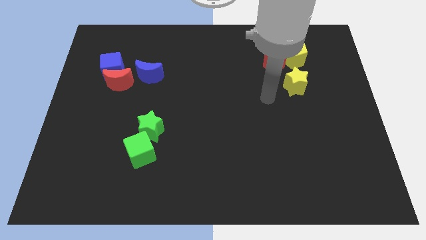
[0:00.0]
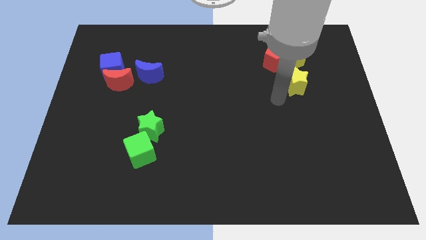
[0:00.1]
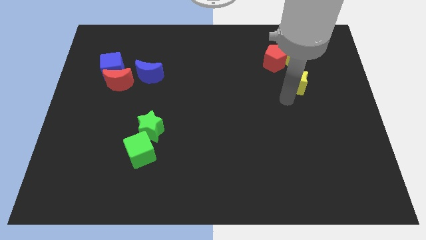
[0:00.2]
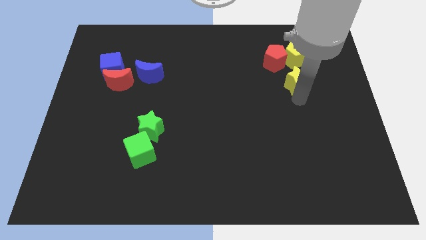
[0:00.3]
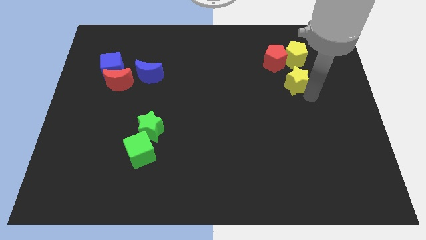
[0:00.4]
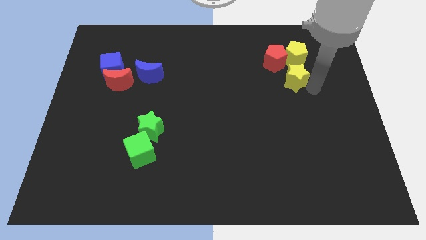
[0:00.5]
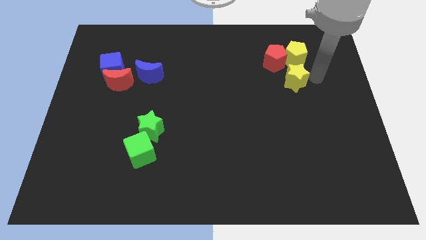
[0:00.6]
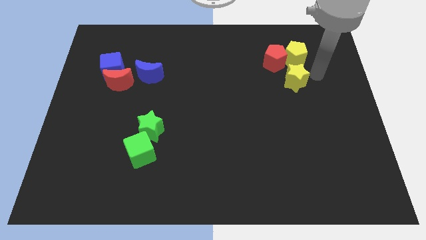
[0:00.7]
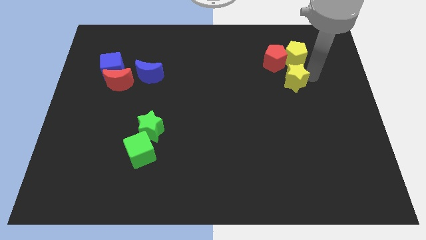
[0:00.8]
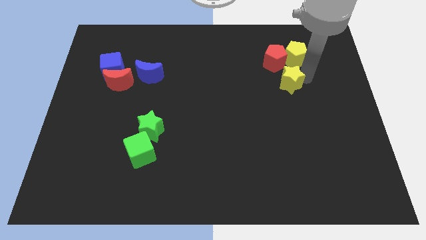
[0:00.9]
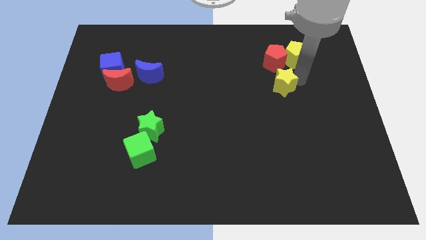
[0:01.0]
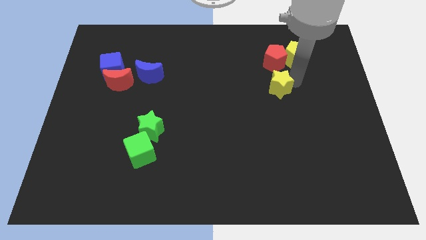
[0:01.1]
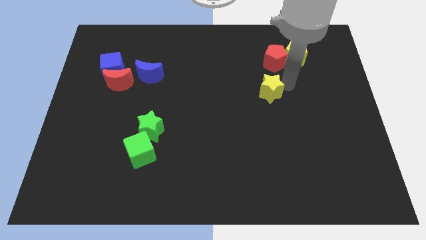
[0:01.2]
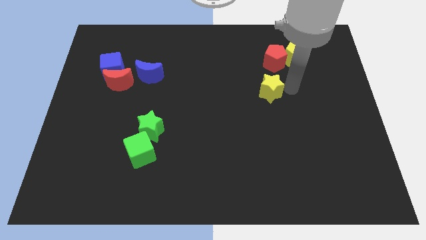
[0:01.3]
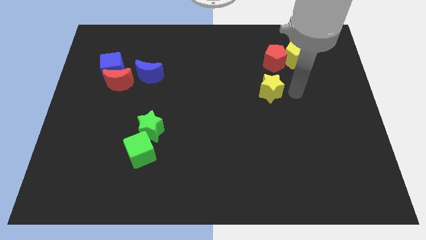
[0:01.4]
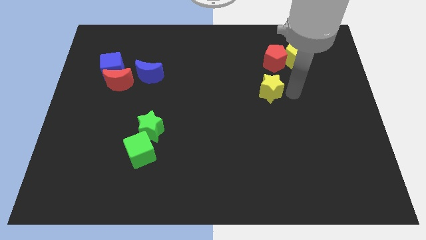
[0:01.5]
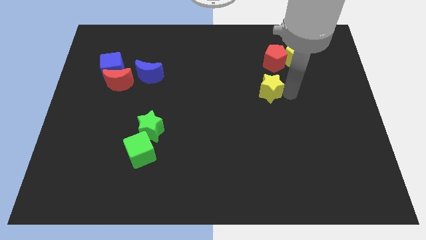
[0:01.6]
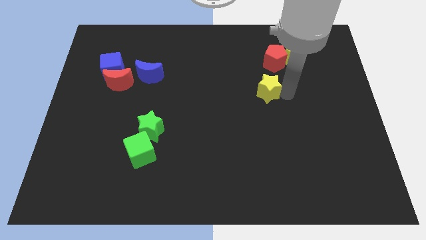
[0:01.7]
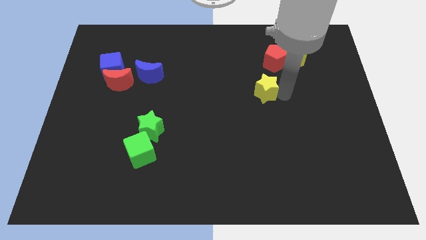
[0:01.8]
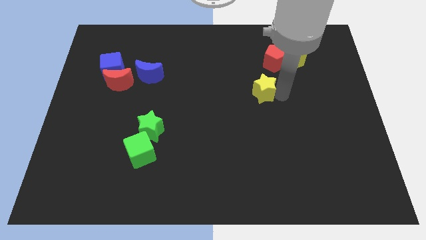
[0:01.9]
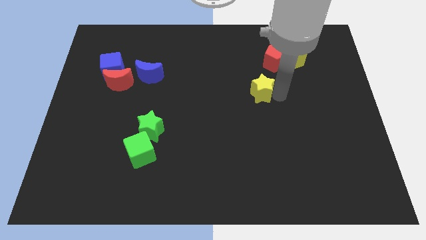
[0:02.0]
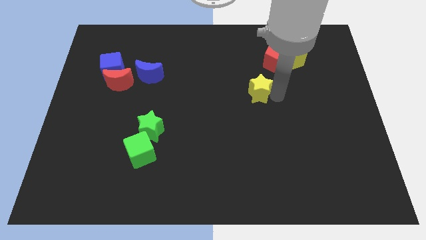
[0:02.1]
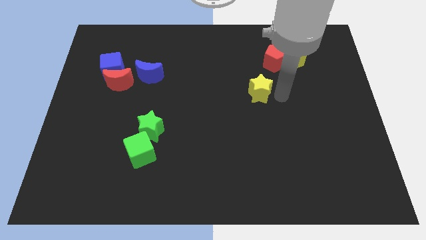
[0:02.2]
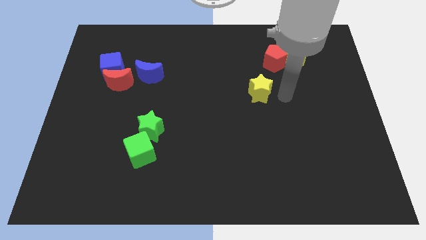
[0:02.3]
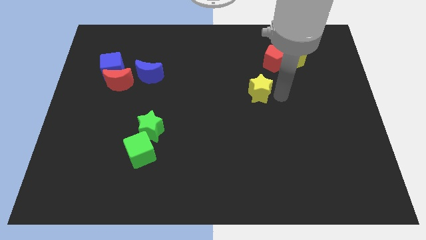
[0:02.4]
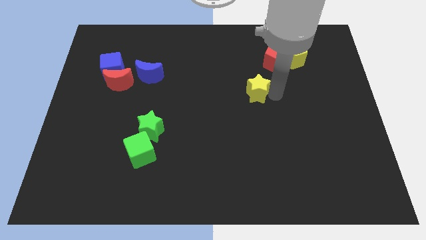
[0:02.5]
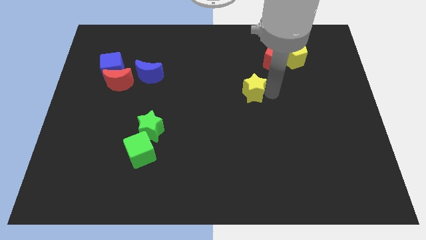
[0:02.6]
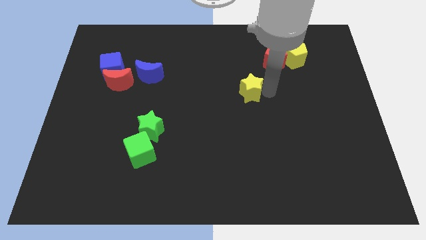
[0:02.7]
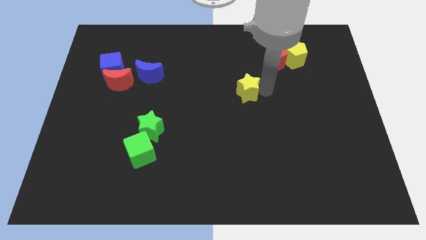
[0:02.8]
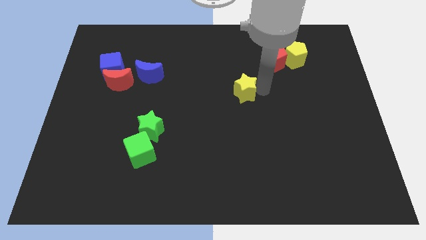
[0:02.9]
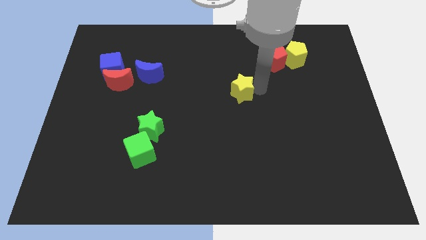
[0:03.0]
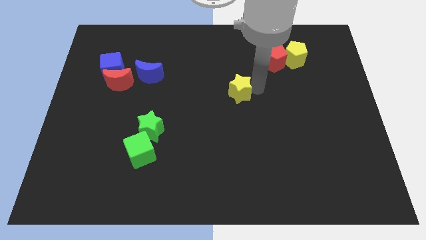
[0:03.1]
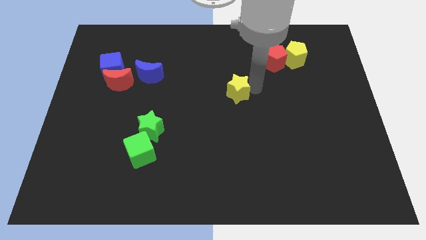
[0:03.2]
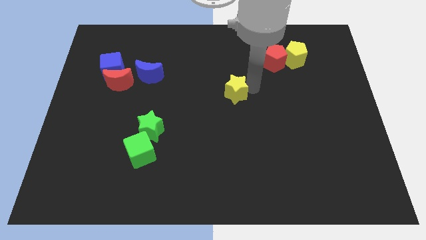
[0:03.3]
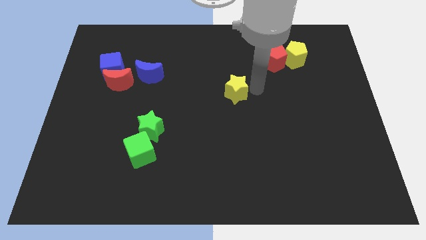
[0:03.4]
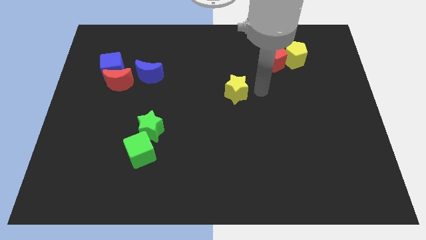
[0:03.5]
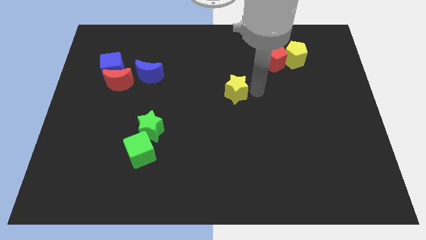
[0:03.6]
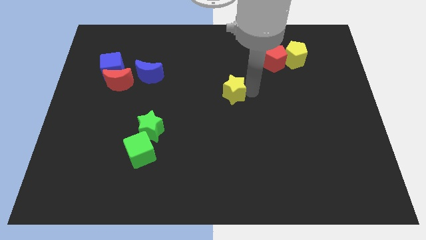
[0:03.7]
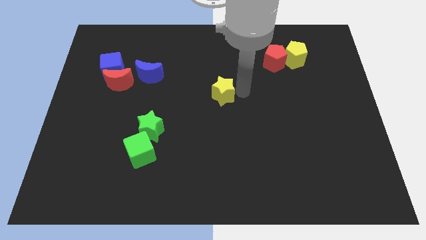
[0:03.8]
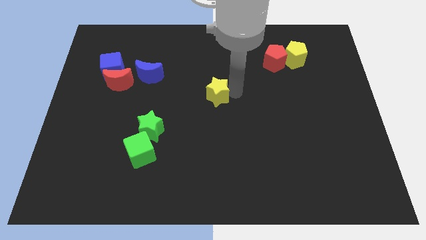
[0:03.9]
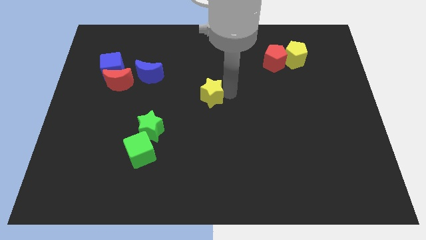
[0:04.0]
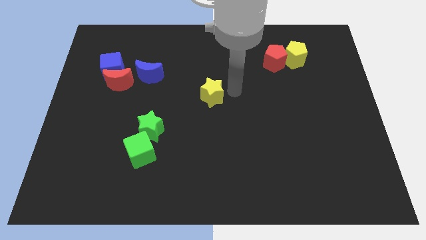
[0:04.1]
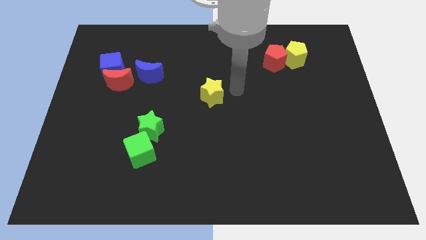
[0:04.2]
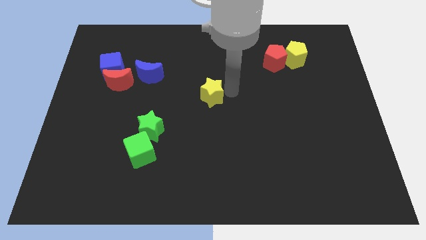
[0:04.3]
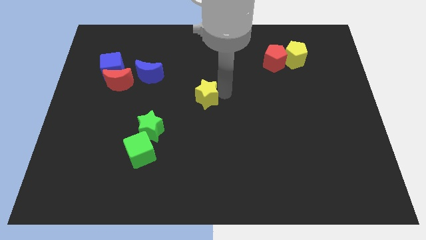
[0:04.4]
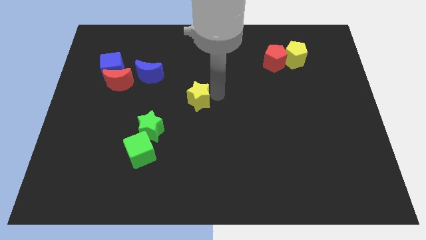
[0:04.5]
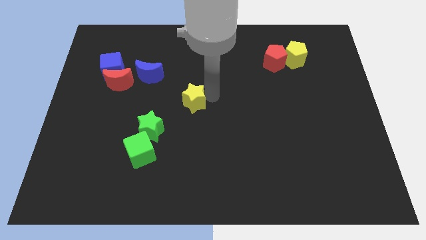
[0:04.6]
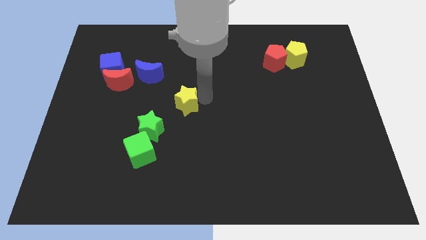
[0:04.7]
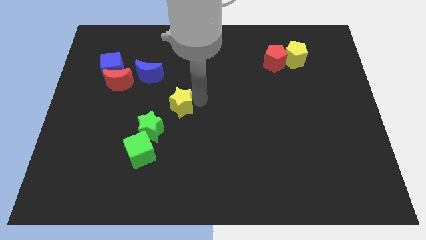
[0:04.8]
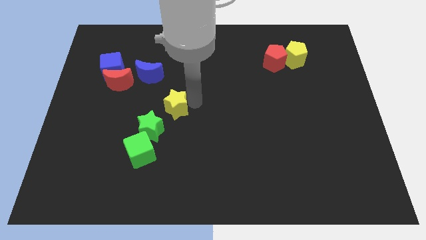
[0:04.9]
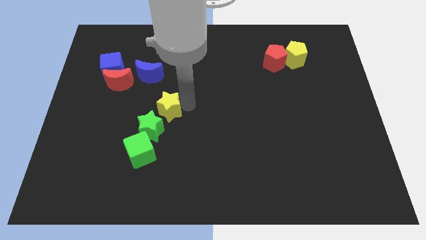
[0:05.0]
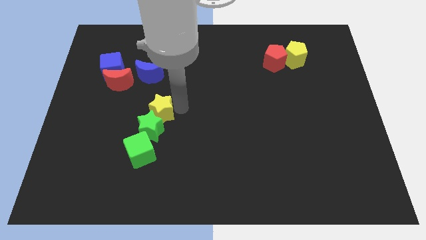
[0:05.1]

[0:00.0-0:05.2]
move the yellow star below the blue moon

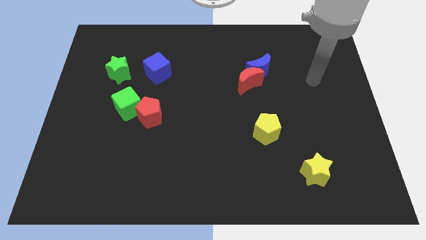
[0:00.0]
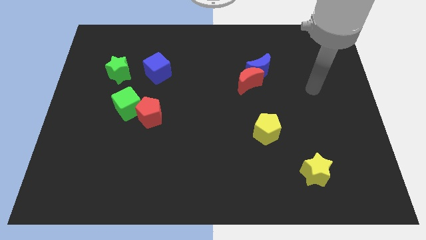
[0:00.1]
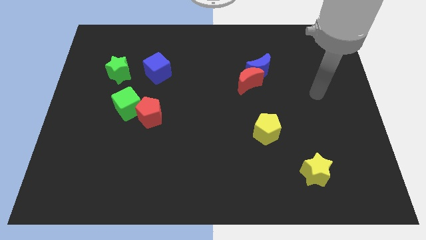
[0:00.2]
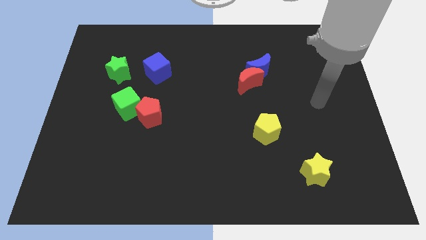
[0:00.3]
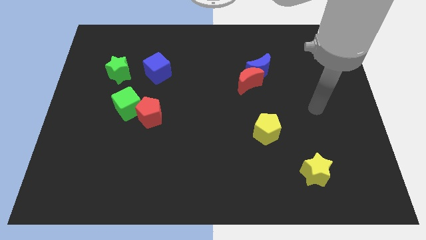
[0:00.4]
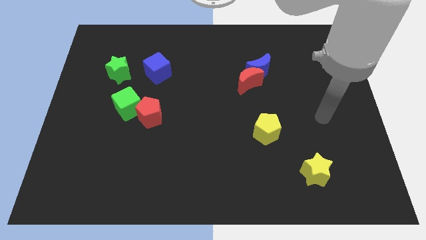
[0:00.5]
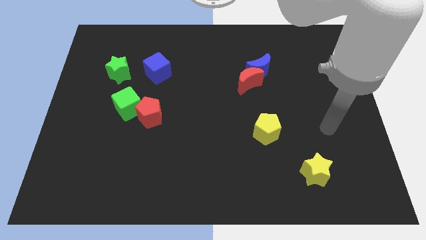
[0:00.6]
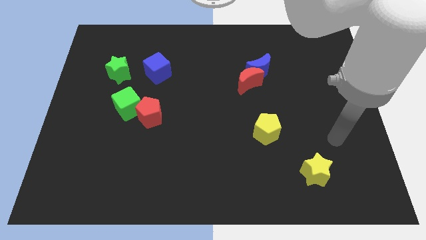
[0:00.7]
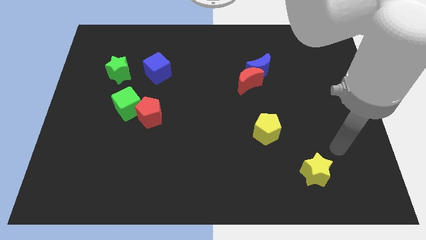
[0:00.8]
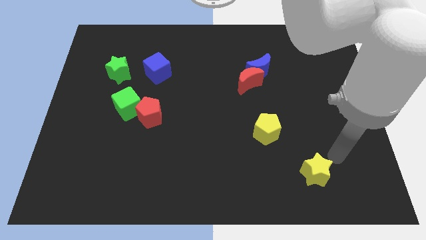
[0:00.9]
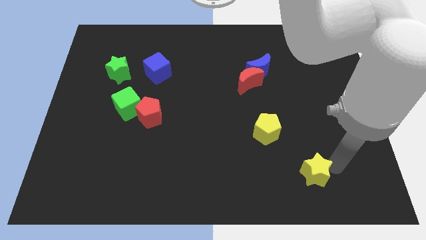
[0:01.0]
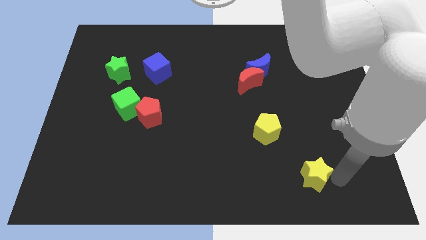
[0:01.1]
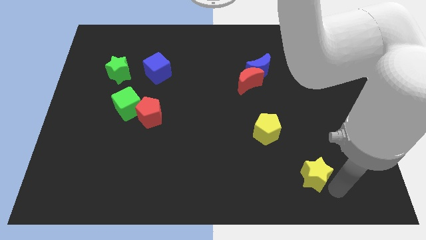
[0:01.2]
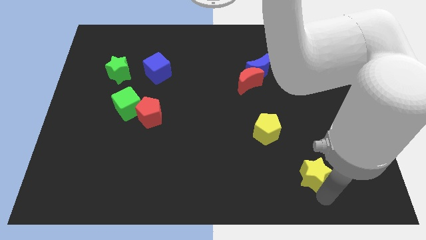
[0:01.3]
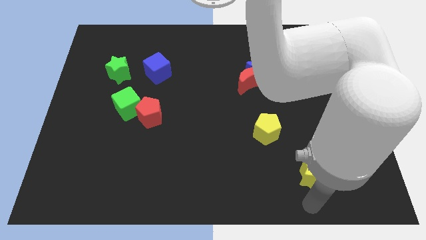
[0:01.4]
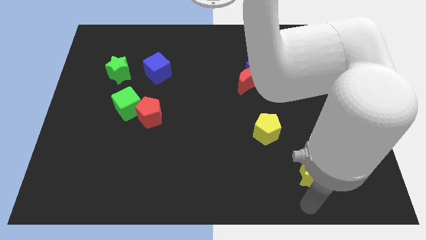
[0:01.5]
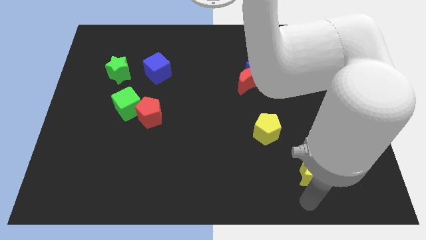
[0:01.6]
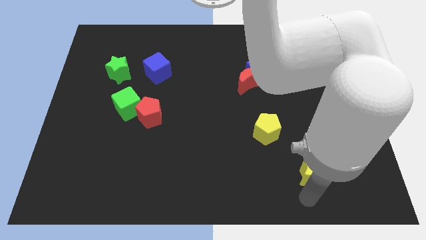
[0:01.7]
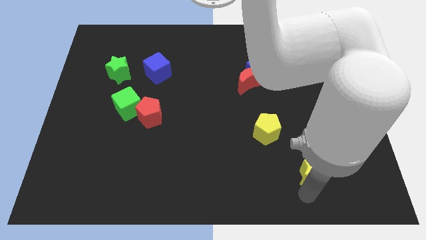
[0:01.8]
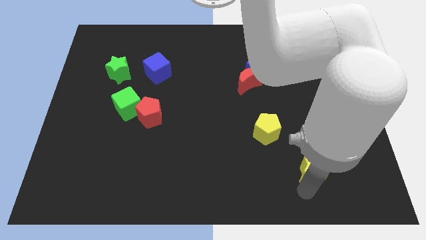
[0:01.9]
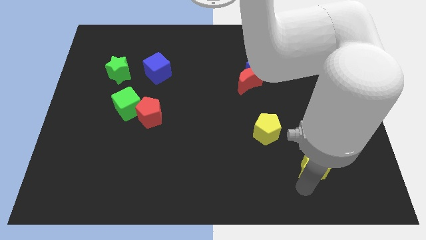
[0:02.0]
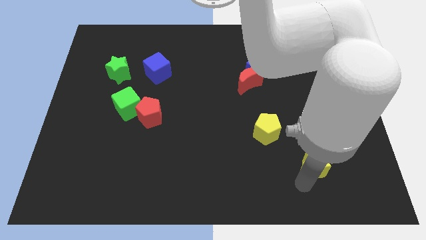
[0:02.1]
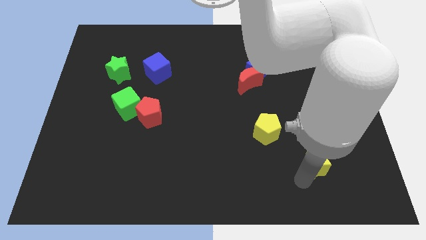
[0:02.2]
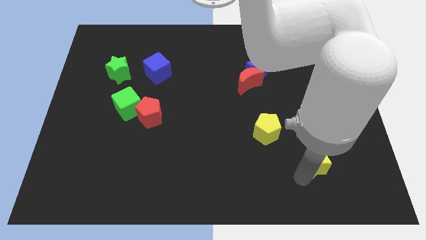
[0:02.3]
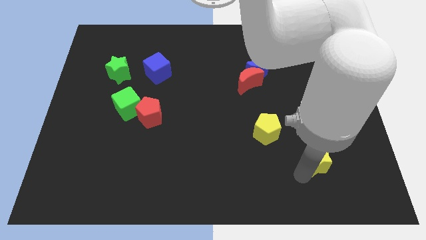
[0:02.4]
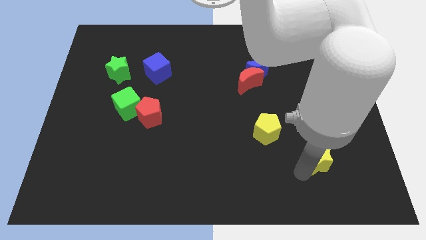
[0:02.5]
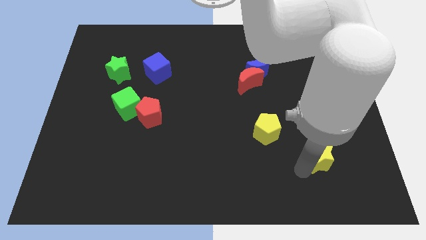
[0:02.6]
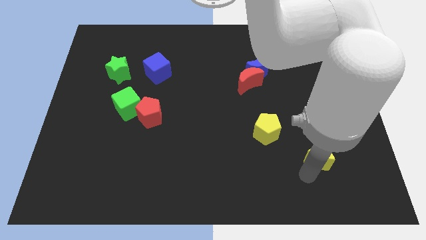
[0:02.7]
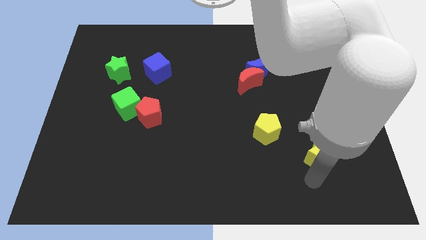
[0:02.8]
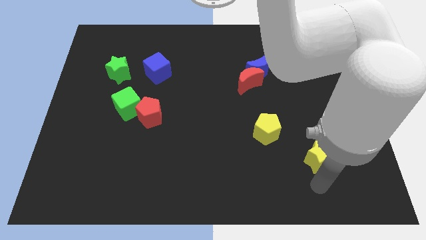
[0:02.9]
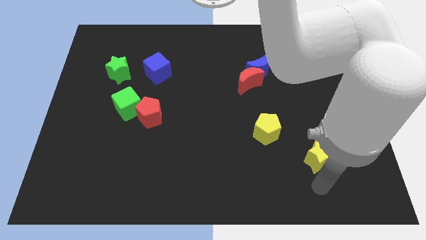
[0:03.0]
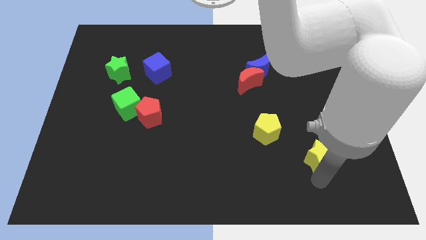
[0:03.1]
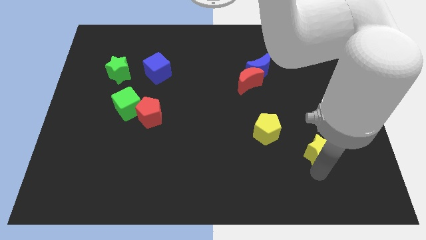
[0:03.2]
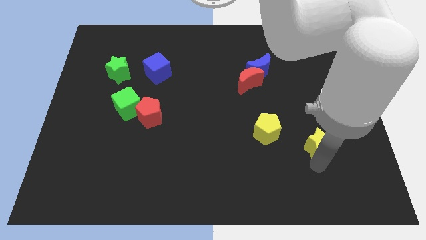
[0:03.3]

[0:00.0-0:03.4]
move the yellow star right of the yellow pentagon
